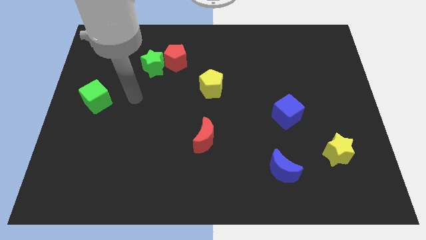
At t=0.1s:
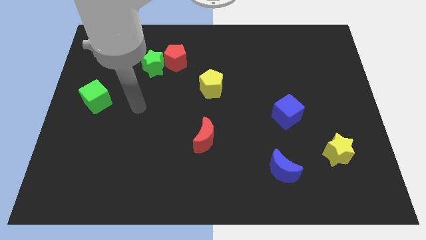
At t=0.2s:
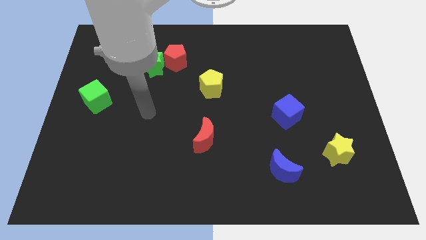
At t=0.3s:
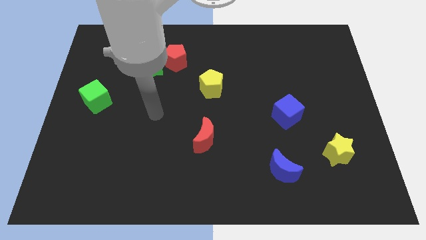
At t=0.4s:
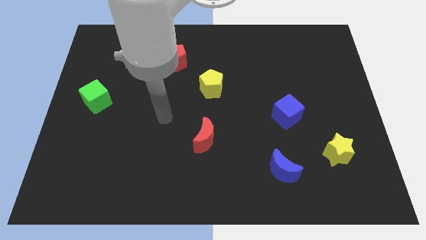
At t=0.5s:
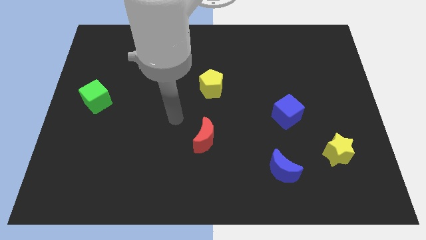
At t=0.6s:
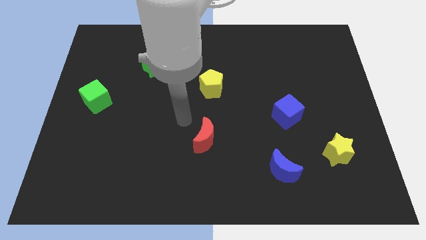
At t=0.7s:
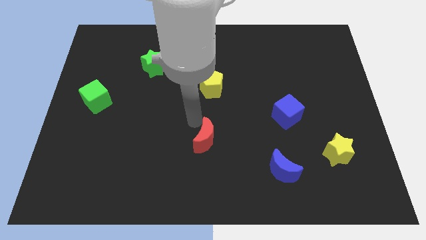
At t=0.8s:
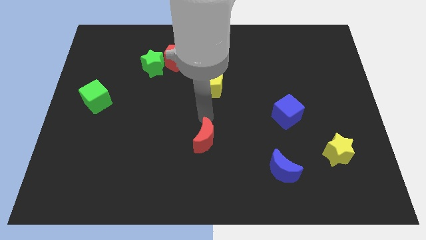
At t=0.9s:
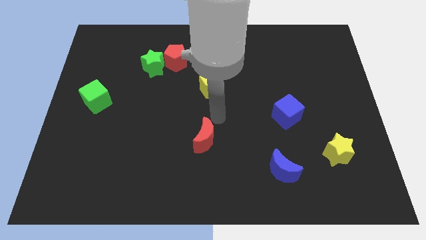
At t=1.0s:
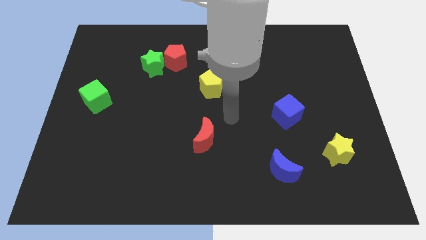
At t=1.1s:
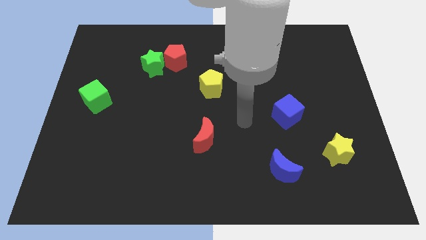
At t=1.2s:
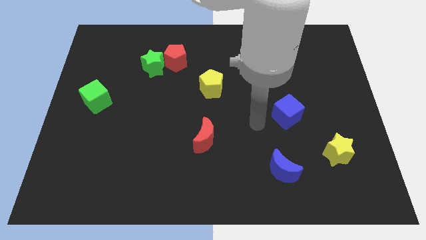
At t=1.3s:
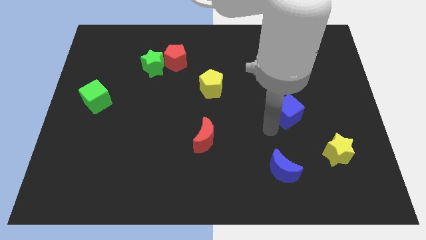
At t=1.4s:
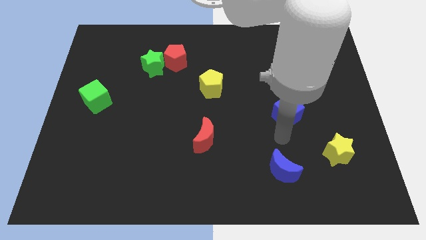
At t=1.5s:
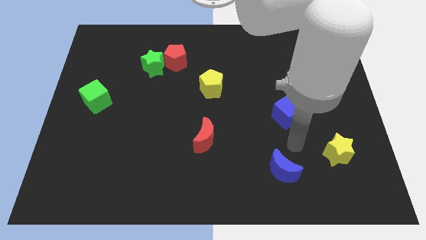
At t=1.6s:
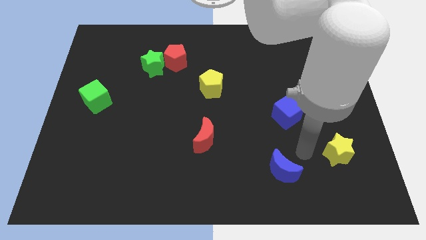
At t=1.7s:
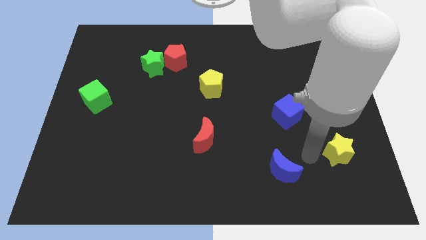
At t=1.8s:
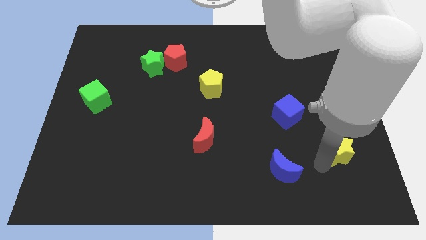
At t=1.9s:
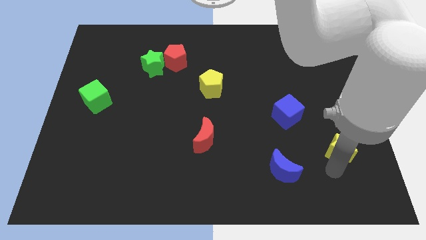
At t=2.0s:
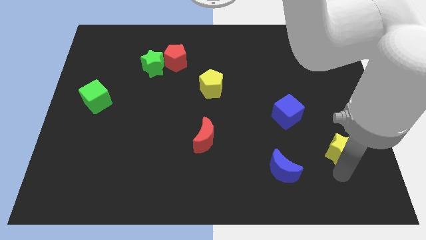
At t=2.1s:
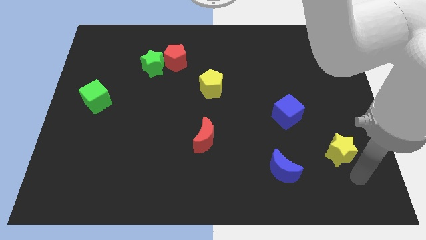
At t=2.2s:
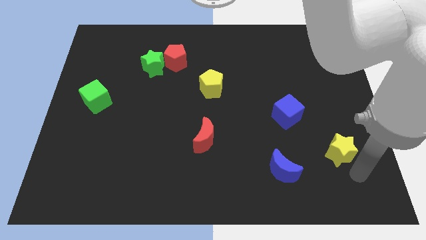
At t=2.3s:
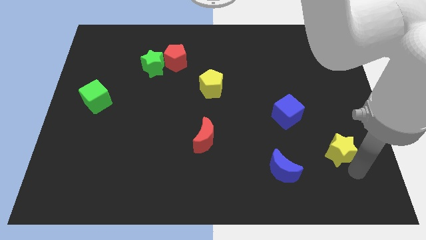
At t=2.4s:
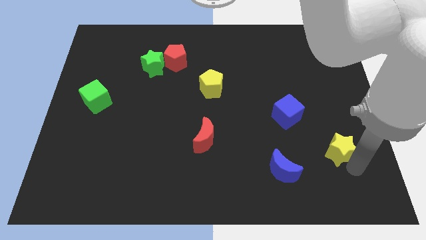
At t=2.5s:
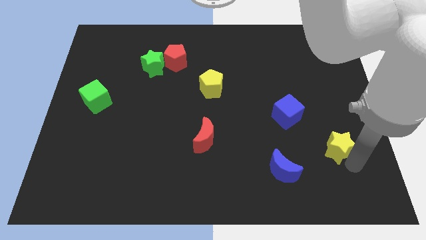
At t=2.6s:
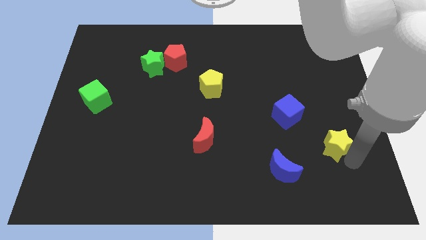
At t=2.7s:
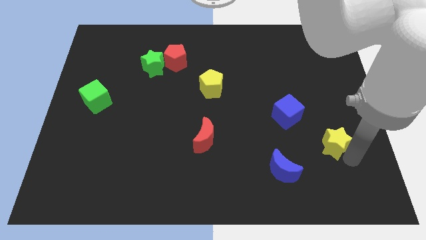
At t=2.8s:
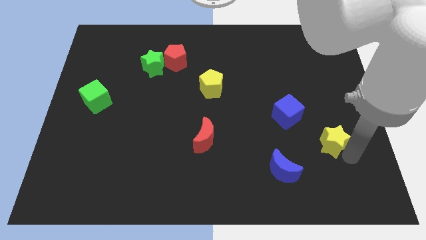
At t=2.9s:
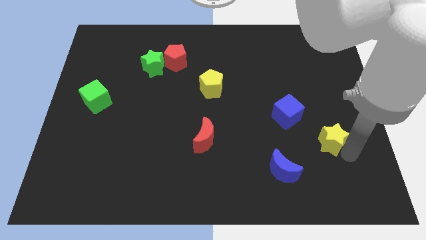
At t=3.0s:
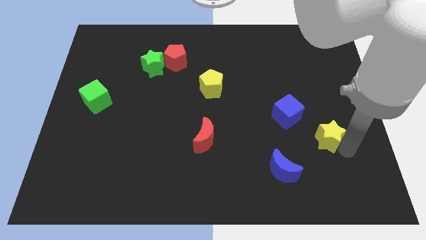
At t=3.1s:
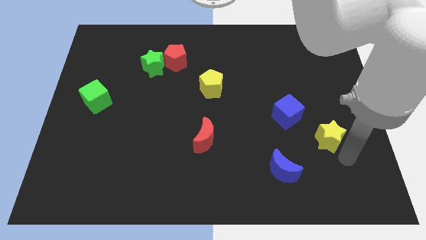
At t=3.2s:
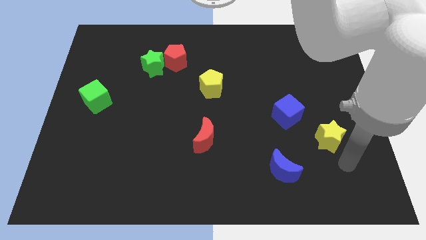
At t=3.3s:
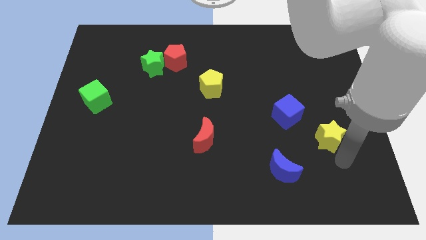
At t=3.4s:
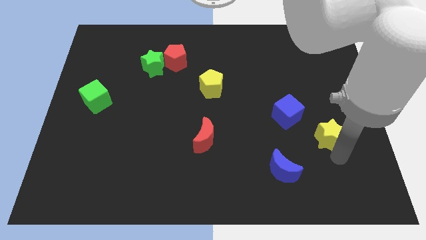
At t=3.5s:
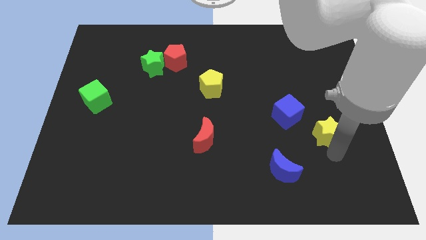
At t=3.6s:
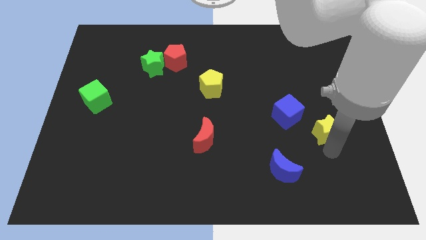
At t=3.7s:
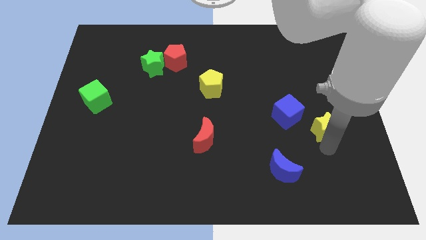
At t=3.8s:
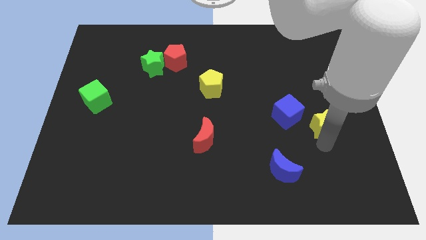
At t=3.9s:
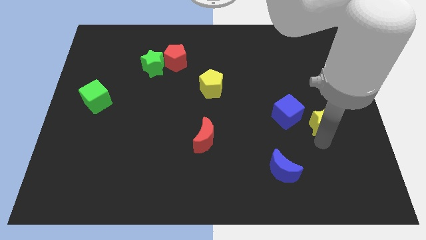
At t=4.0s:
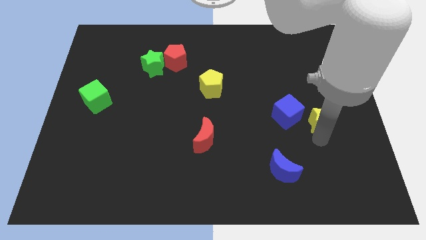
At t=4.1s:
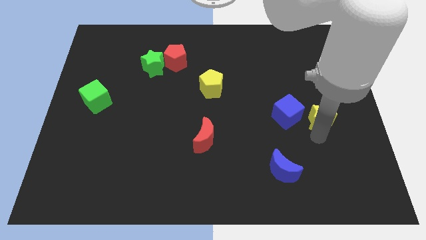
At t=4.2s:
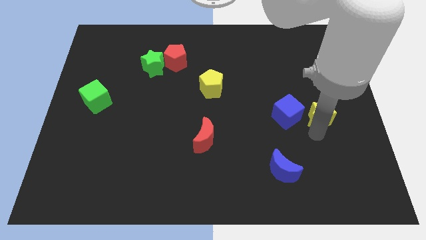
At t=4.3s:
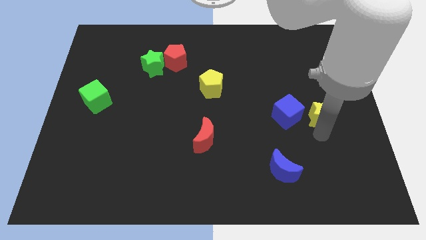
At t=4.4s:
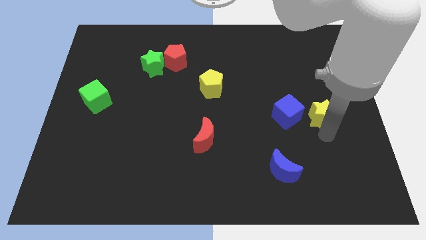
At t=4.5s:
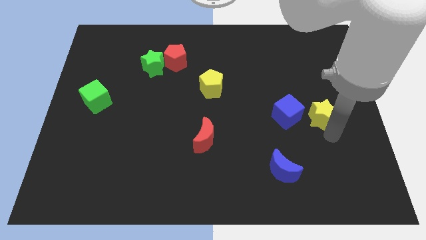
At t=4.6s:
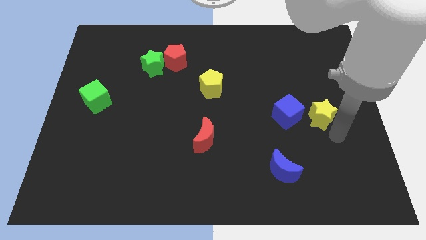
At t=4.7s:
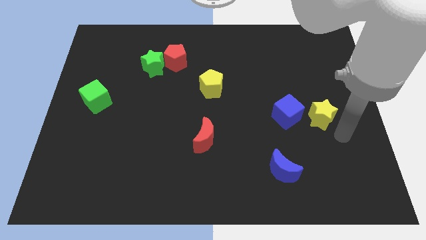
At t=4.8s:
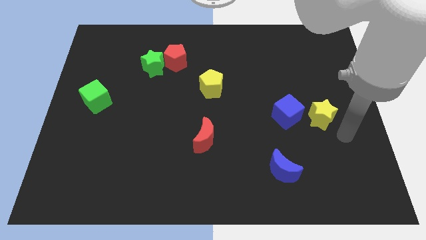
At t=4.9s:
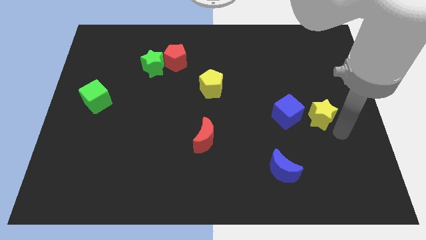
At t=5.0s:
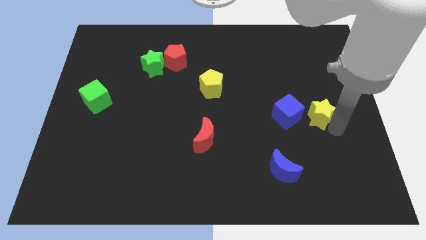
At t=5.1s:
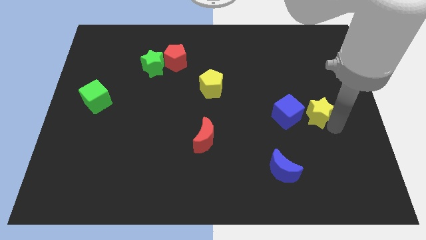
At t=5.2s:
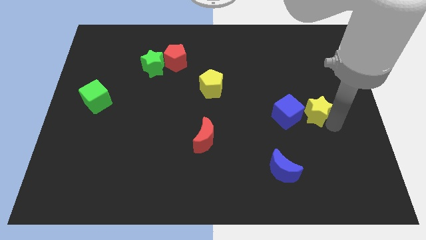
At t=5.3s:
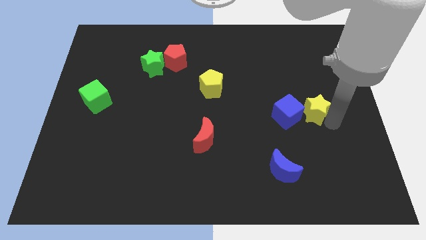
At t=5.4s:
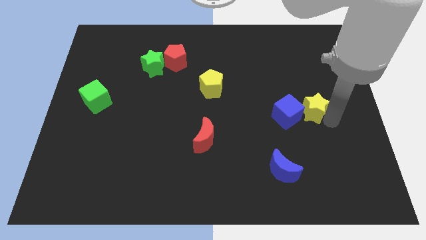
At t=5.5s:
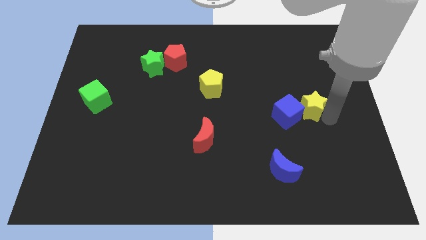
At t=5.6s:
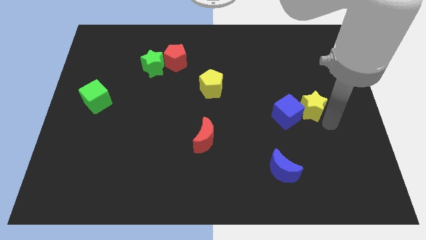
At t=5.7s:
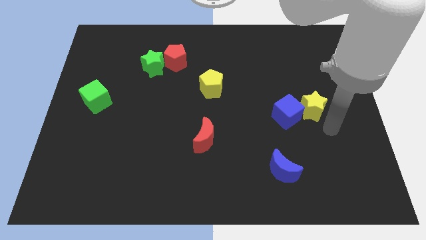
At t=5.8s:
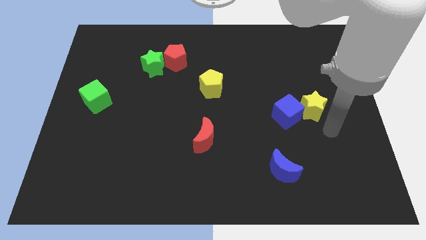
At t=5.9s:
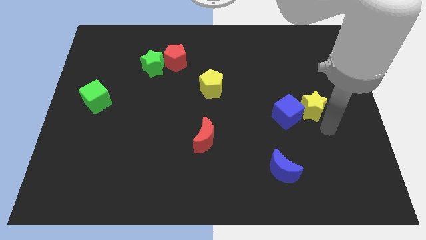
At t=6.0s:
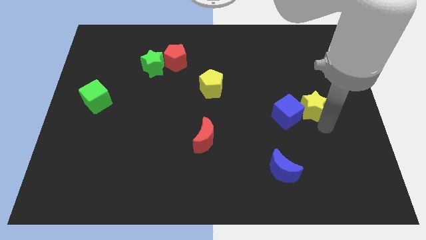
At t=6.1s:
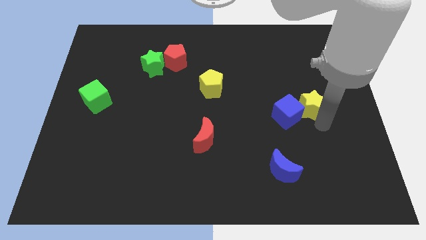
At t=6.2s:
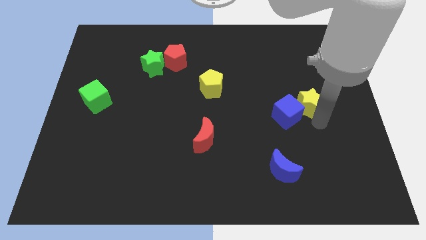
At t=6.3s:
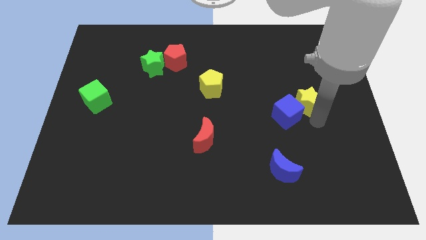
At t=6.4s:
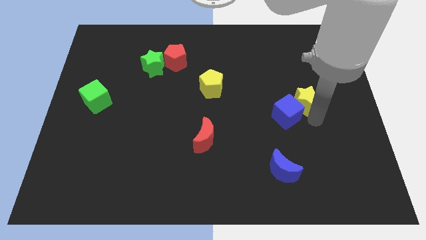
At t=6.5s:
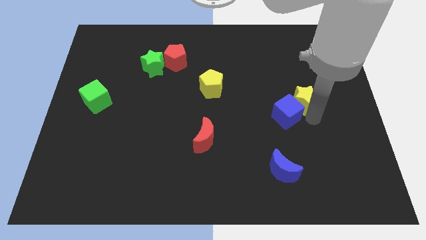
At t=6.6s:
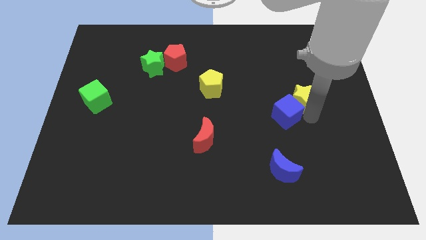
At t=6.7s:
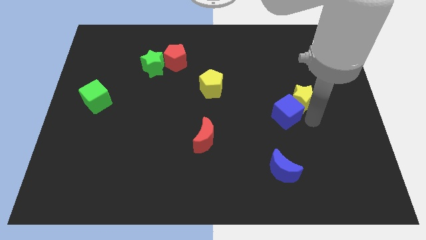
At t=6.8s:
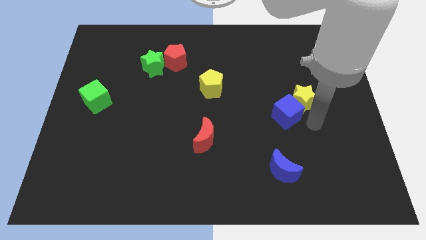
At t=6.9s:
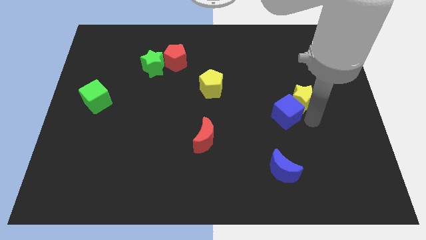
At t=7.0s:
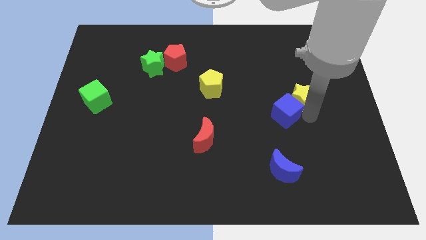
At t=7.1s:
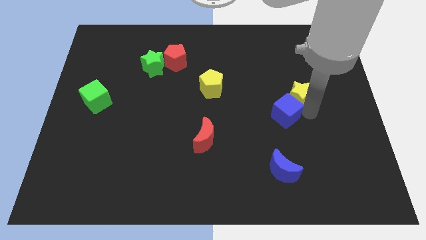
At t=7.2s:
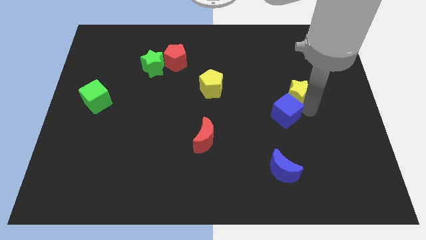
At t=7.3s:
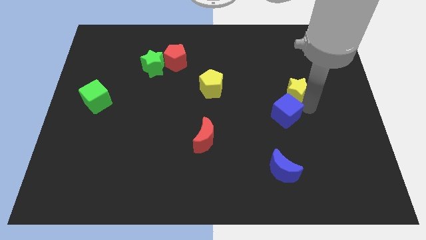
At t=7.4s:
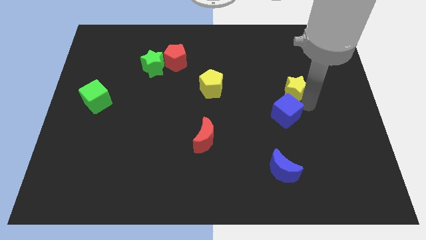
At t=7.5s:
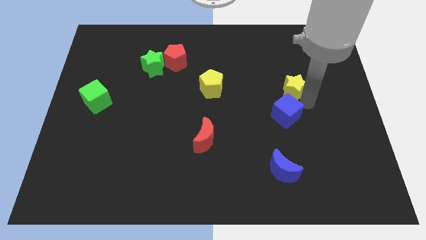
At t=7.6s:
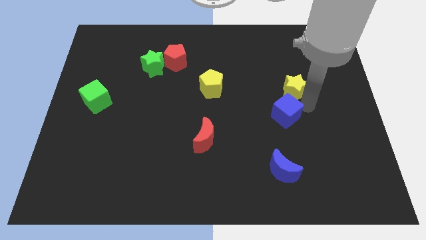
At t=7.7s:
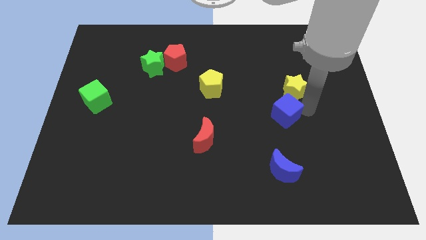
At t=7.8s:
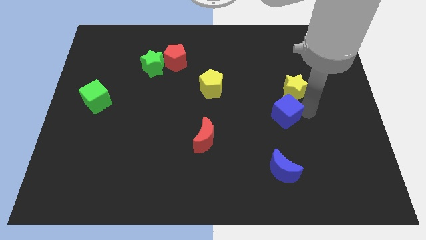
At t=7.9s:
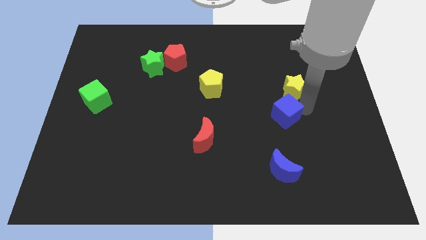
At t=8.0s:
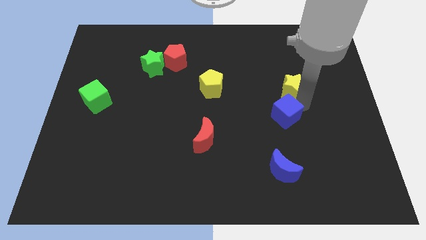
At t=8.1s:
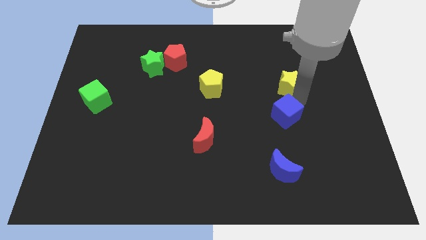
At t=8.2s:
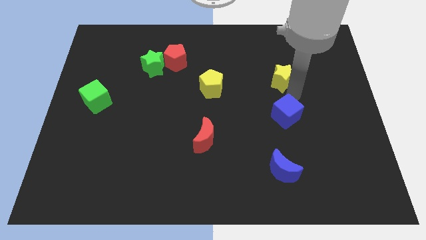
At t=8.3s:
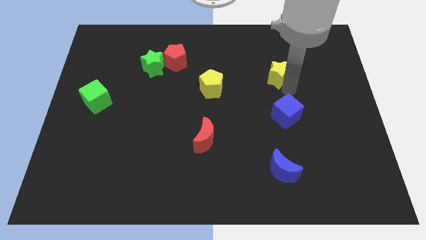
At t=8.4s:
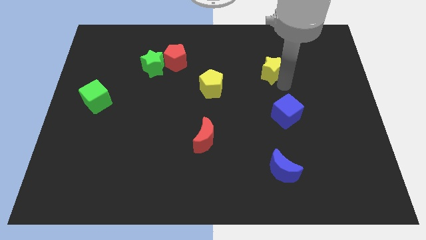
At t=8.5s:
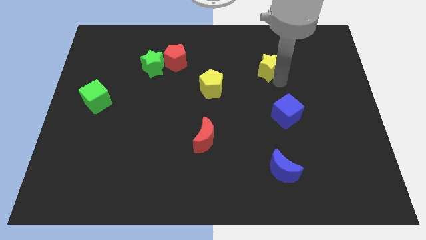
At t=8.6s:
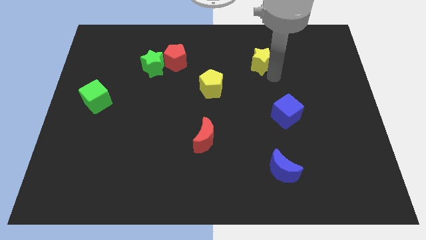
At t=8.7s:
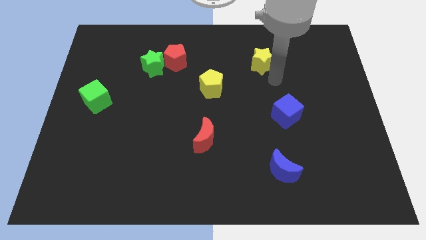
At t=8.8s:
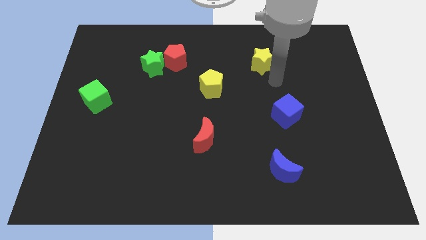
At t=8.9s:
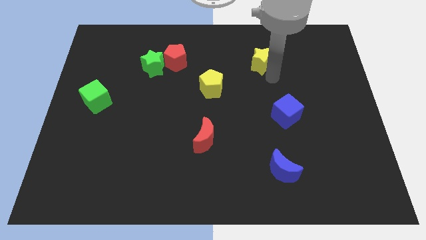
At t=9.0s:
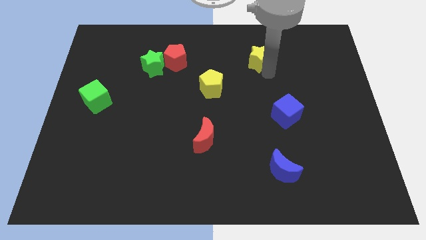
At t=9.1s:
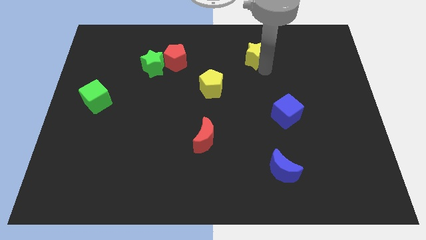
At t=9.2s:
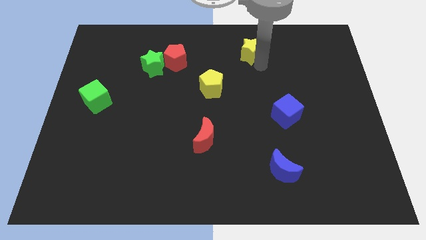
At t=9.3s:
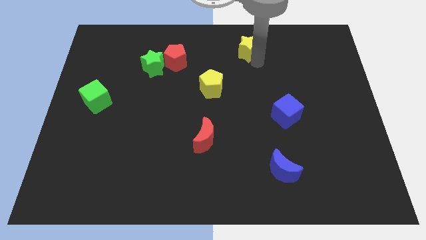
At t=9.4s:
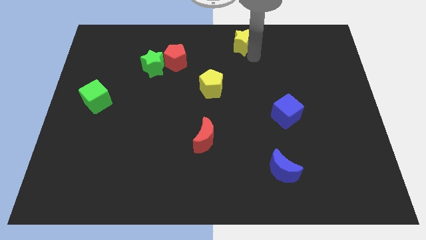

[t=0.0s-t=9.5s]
move the yellow star to the towards your base
